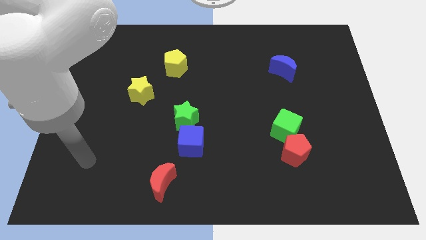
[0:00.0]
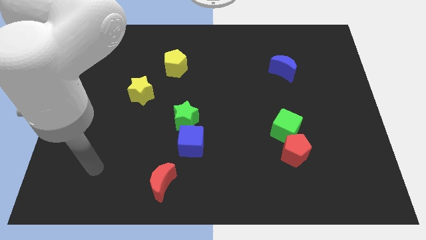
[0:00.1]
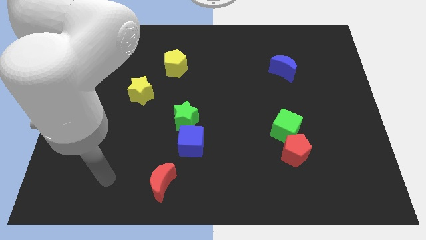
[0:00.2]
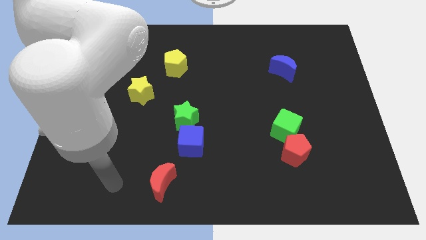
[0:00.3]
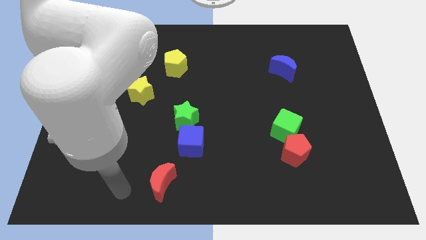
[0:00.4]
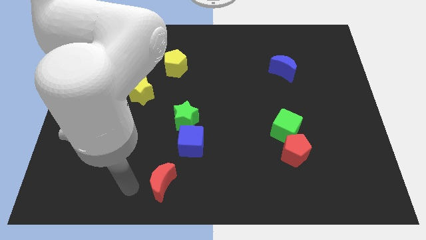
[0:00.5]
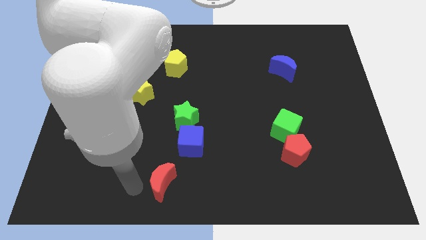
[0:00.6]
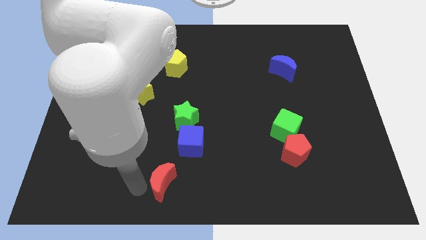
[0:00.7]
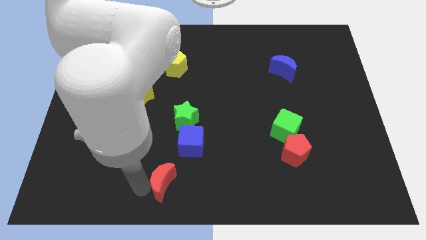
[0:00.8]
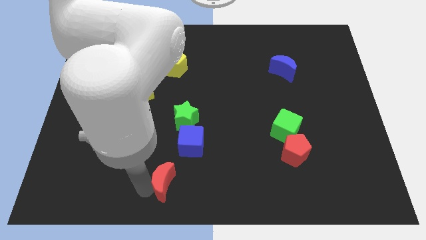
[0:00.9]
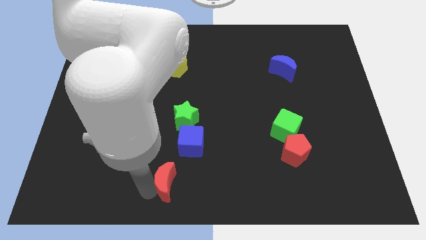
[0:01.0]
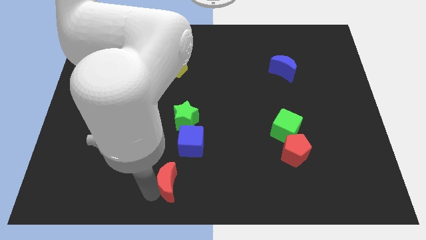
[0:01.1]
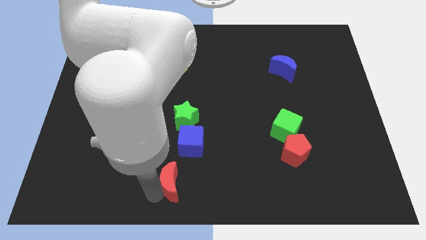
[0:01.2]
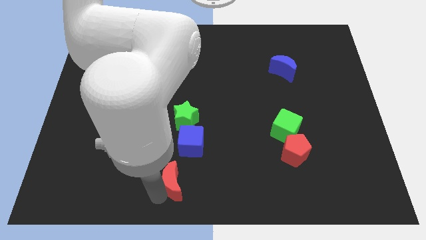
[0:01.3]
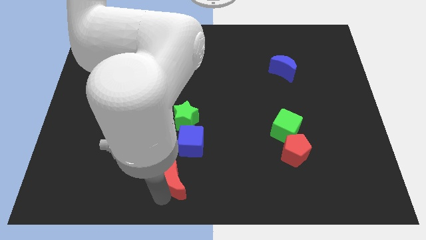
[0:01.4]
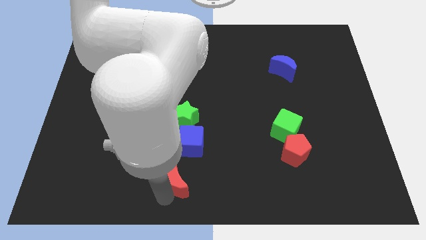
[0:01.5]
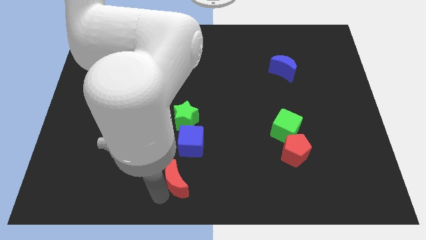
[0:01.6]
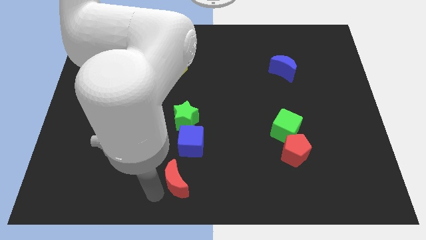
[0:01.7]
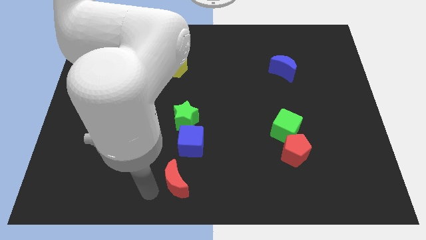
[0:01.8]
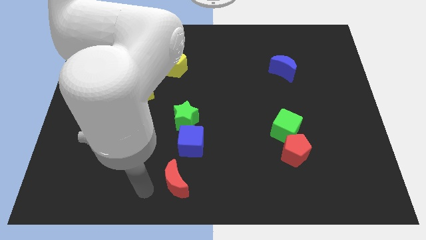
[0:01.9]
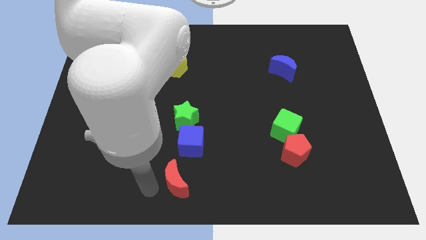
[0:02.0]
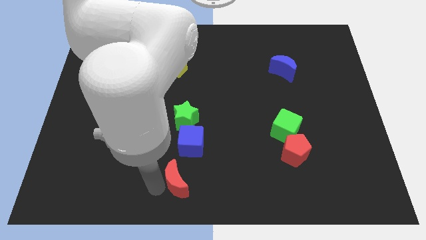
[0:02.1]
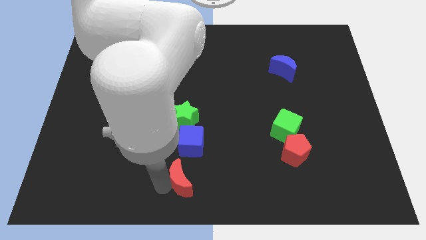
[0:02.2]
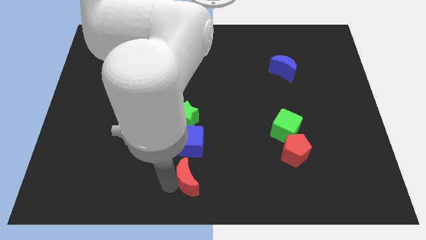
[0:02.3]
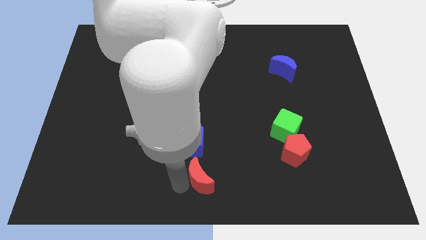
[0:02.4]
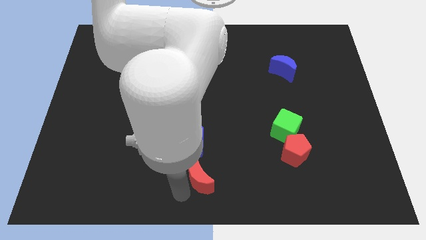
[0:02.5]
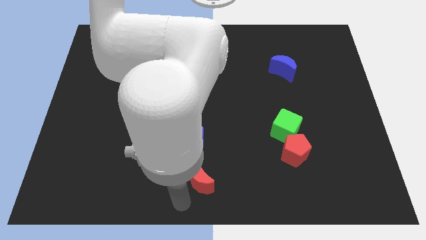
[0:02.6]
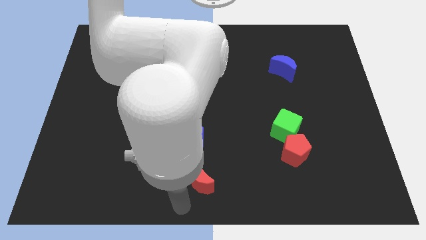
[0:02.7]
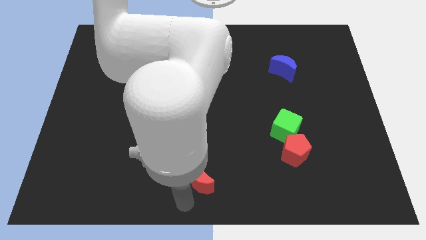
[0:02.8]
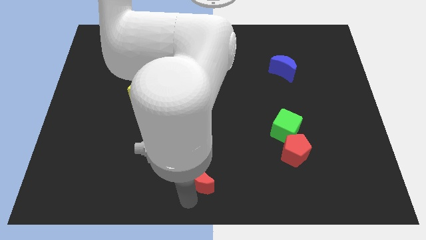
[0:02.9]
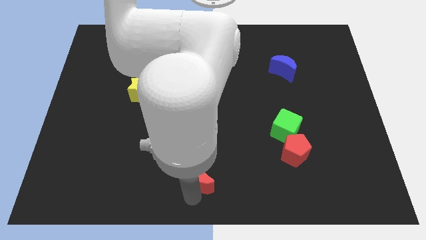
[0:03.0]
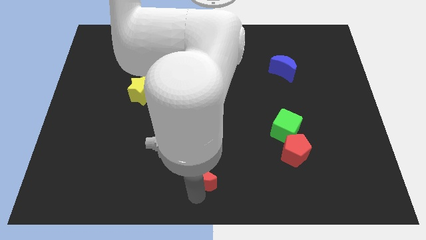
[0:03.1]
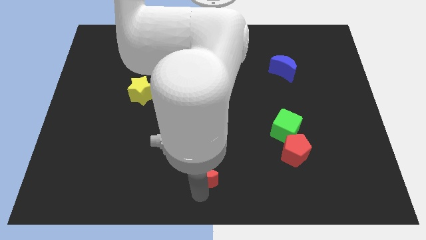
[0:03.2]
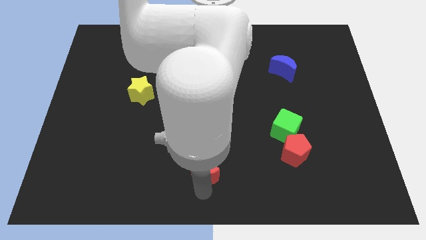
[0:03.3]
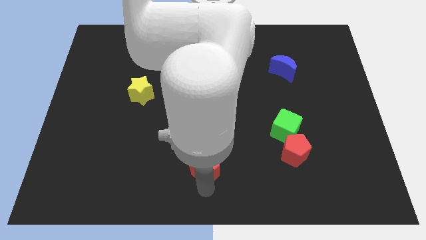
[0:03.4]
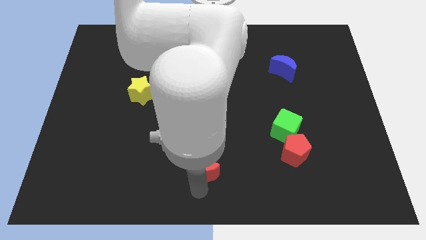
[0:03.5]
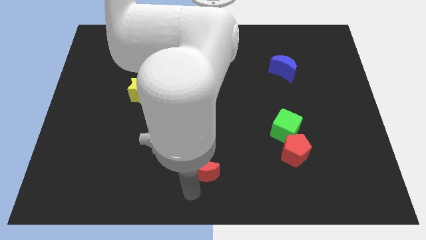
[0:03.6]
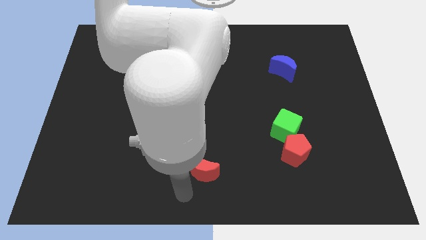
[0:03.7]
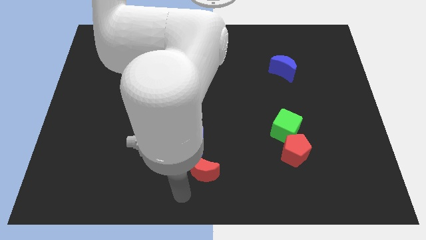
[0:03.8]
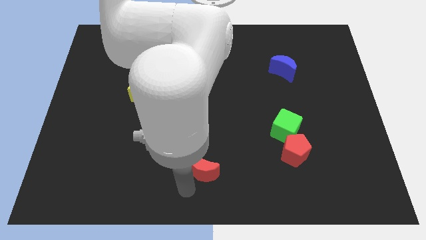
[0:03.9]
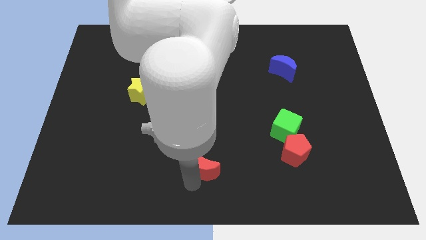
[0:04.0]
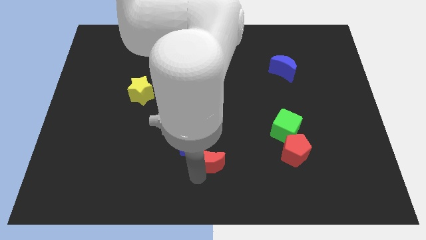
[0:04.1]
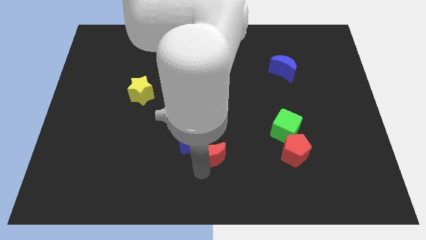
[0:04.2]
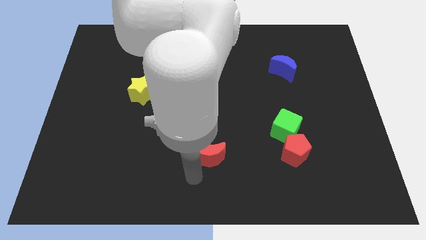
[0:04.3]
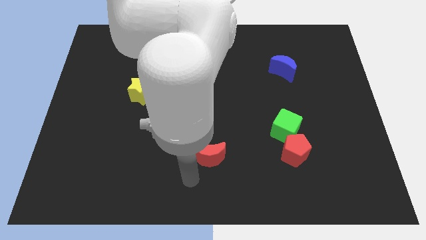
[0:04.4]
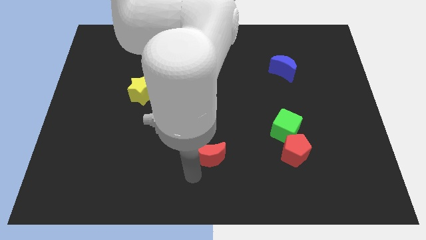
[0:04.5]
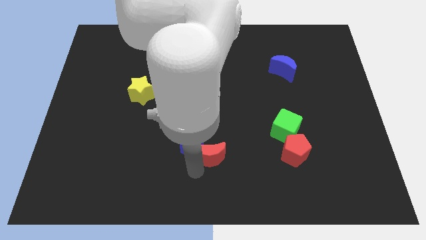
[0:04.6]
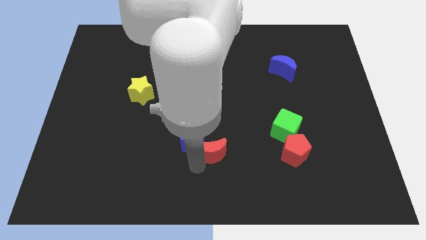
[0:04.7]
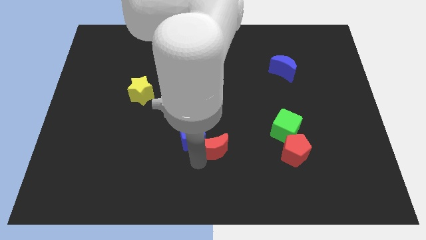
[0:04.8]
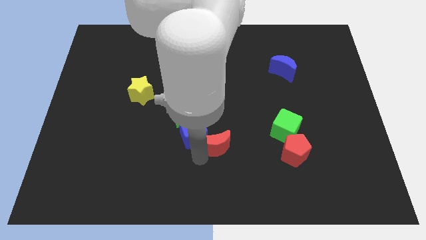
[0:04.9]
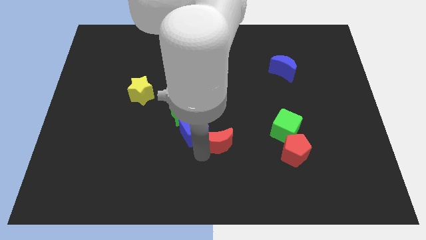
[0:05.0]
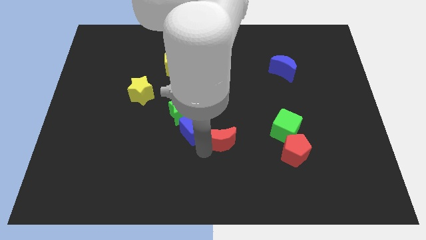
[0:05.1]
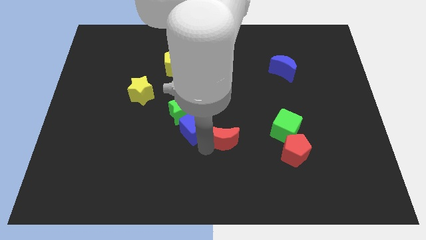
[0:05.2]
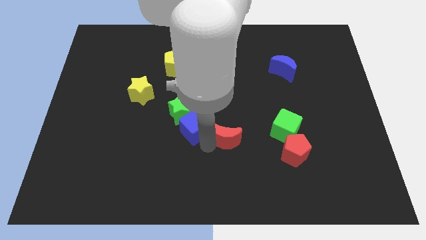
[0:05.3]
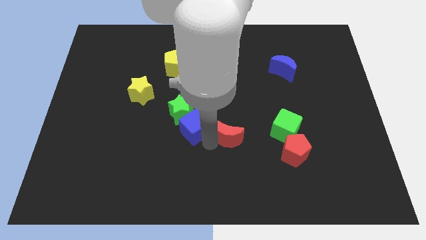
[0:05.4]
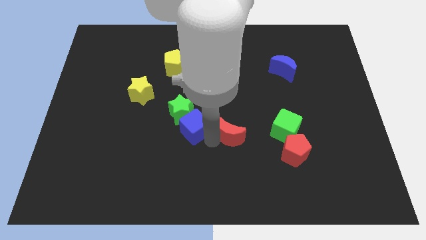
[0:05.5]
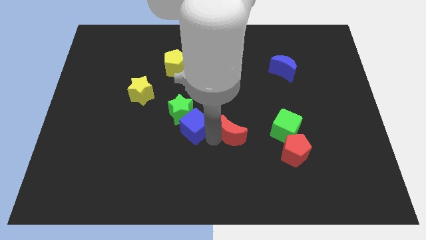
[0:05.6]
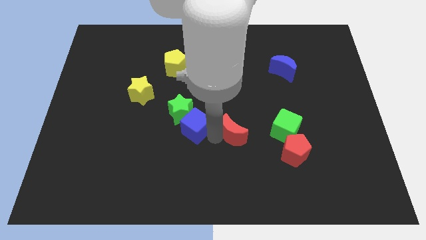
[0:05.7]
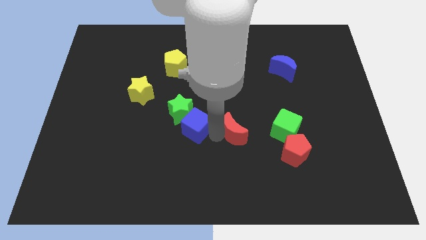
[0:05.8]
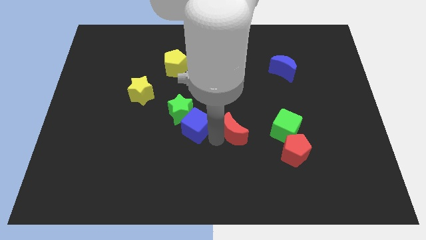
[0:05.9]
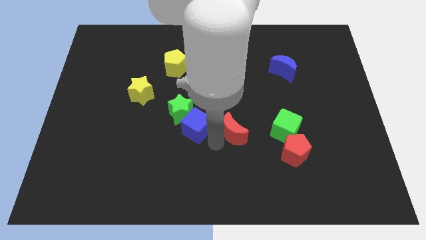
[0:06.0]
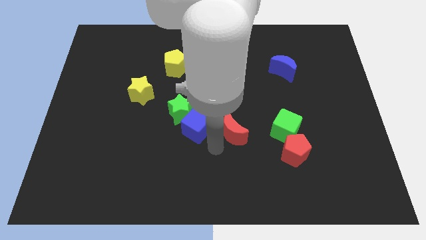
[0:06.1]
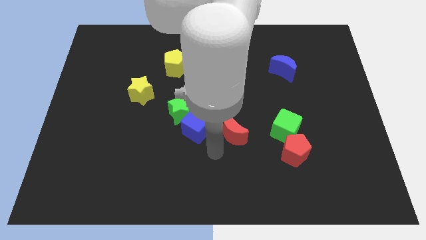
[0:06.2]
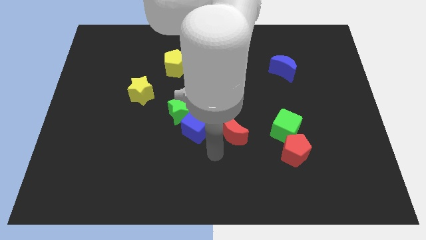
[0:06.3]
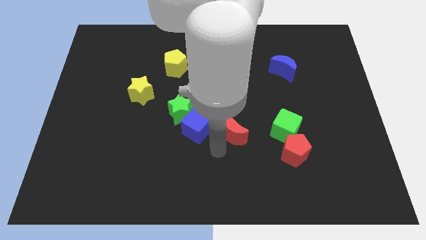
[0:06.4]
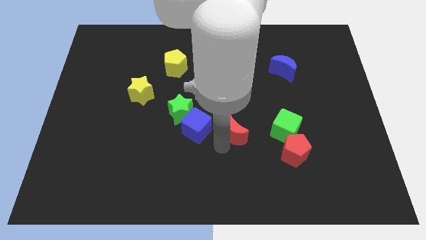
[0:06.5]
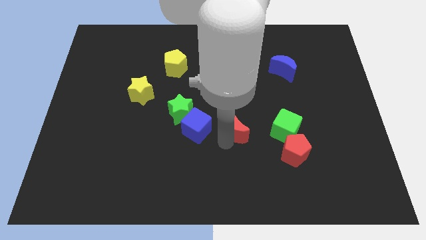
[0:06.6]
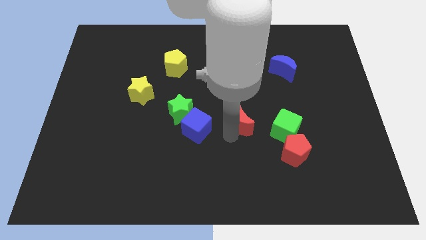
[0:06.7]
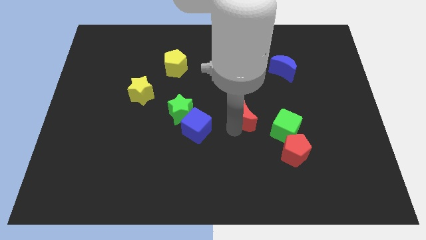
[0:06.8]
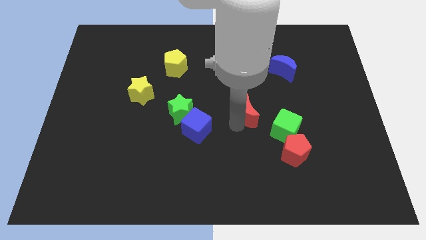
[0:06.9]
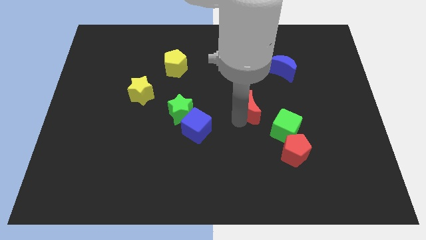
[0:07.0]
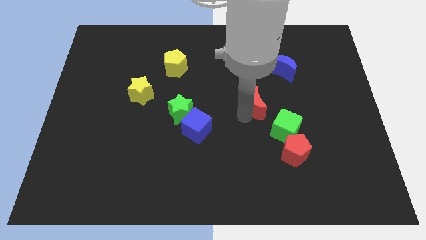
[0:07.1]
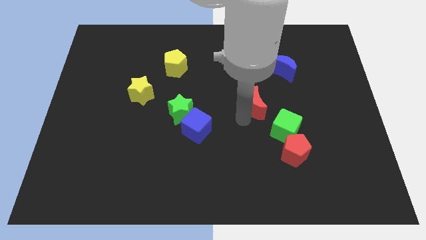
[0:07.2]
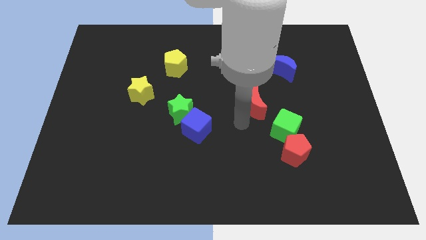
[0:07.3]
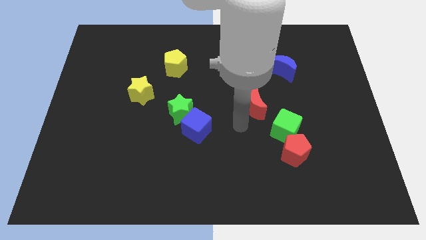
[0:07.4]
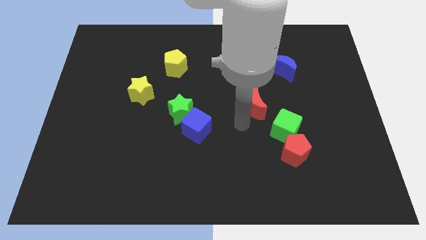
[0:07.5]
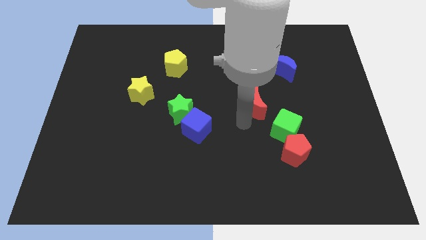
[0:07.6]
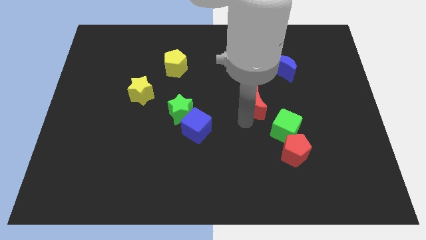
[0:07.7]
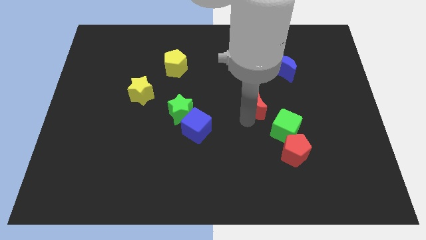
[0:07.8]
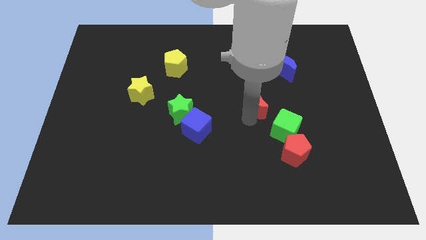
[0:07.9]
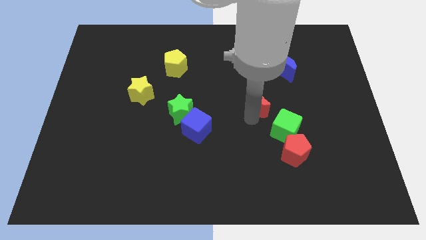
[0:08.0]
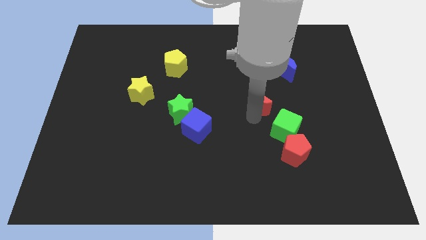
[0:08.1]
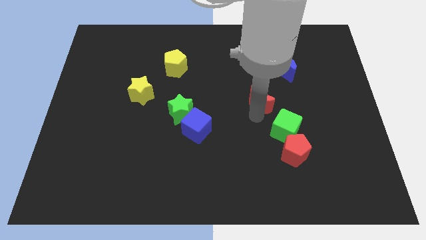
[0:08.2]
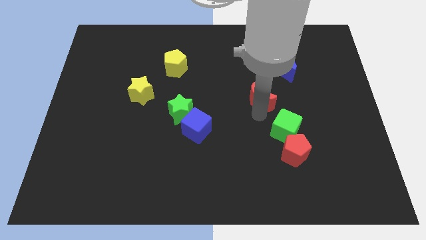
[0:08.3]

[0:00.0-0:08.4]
put the red moon to the bottom left of the blue moon
